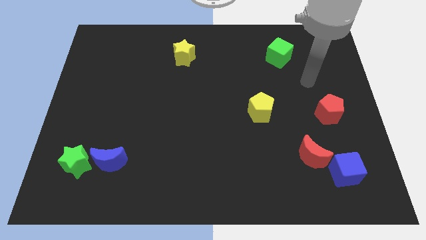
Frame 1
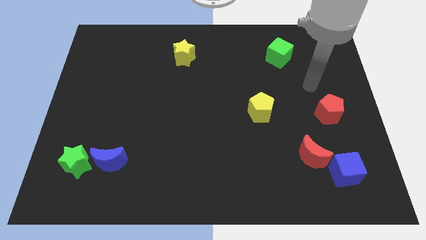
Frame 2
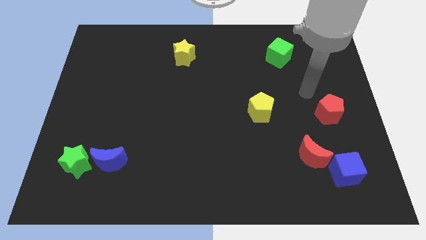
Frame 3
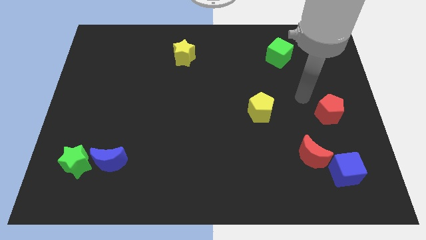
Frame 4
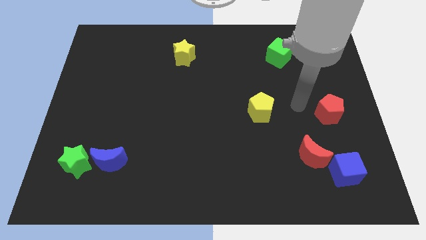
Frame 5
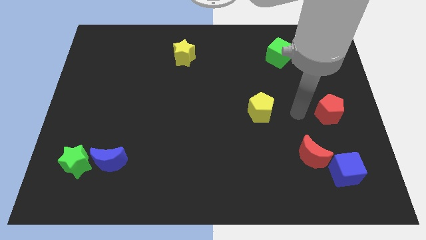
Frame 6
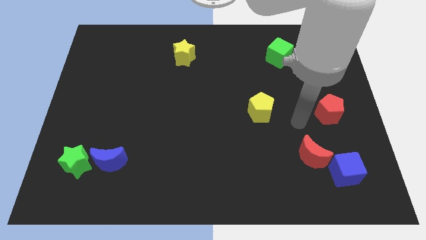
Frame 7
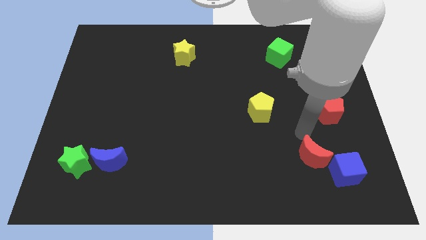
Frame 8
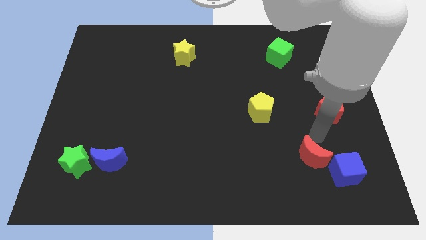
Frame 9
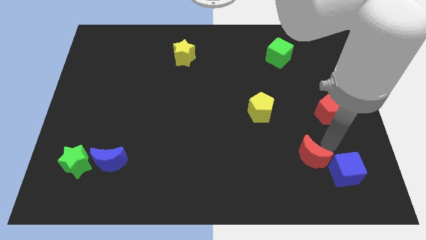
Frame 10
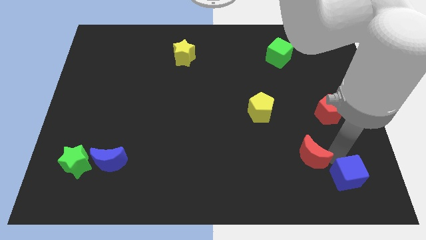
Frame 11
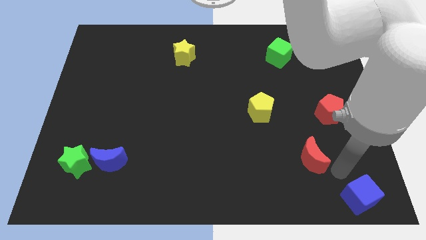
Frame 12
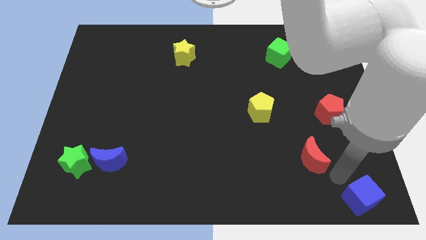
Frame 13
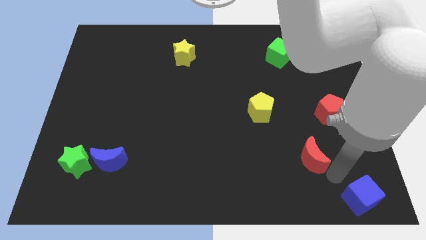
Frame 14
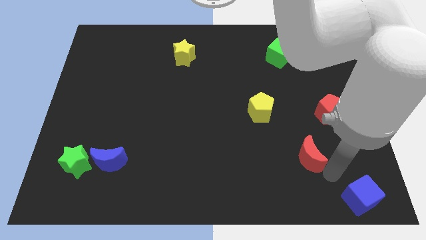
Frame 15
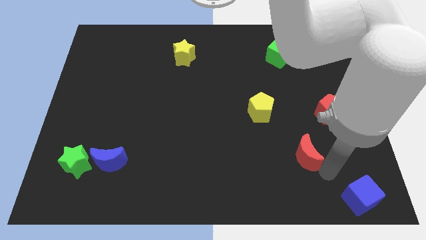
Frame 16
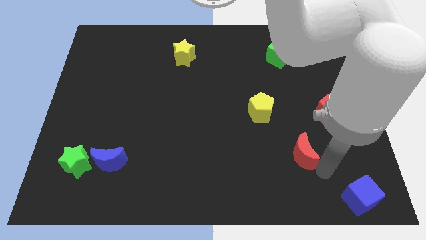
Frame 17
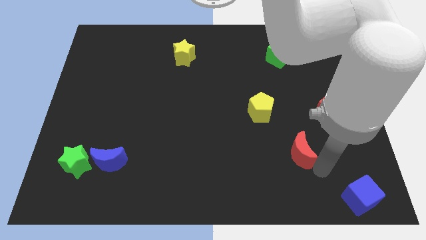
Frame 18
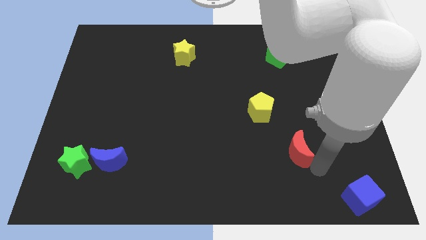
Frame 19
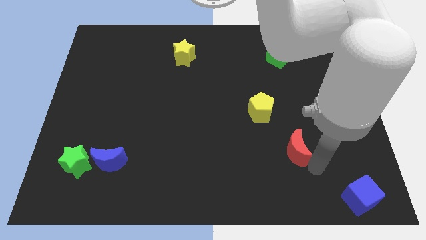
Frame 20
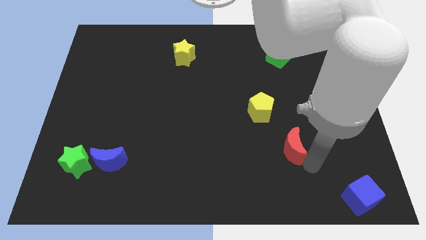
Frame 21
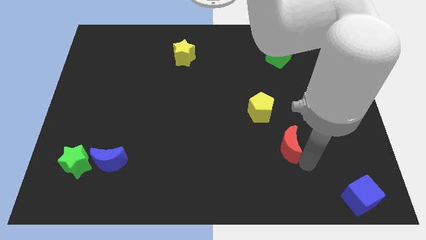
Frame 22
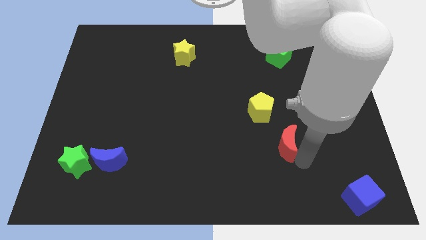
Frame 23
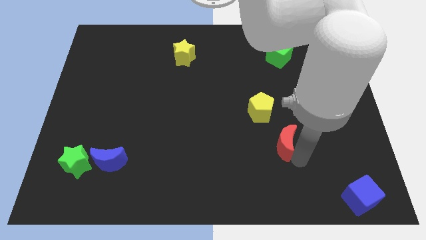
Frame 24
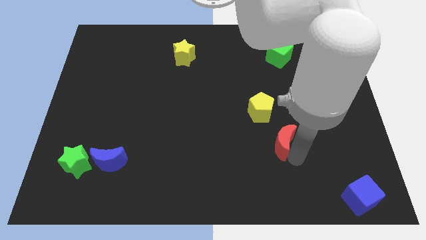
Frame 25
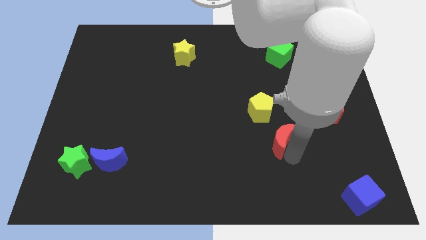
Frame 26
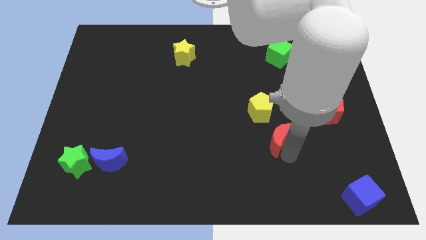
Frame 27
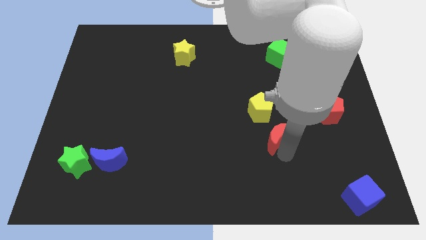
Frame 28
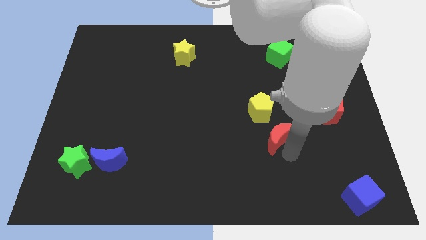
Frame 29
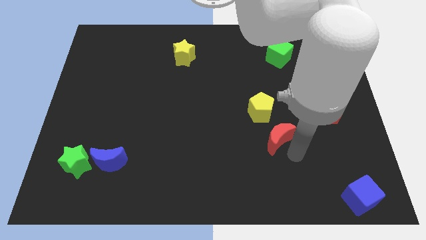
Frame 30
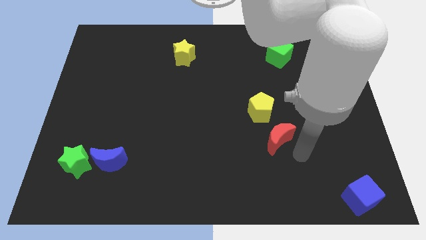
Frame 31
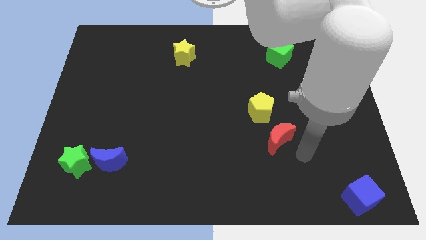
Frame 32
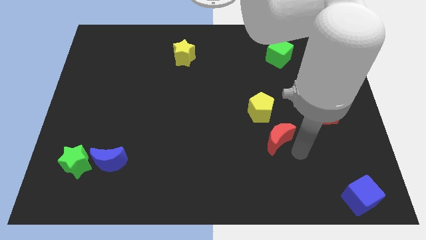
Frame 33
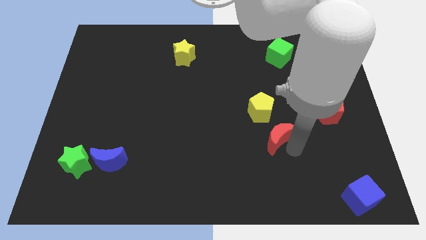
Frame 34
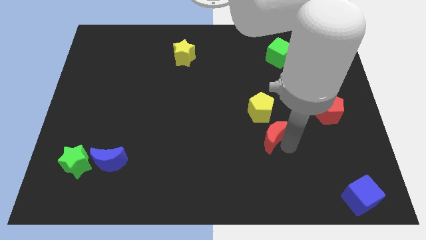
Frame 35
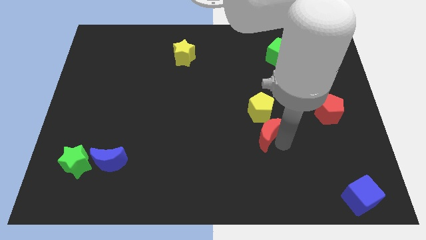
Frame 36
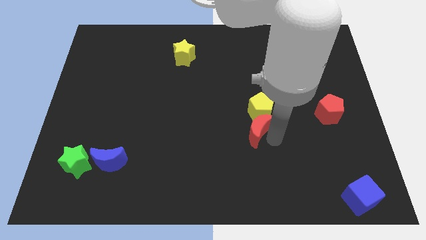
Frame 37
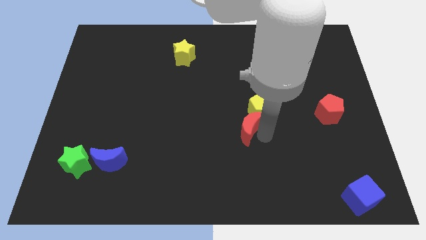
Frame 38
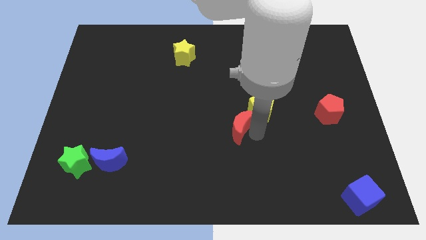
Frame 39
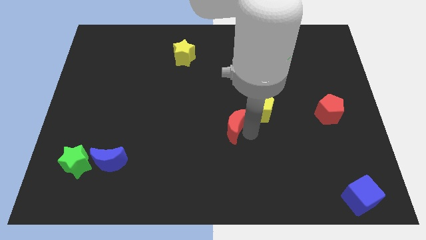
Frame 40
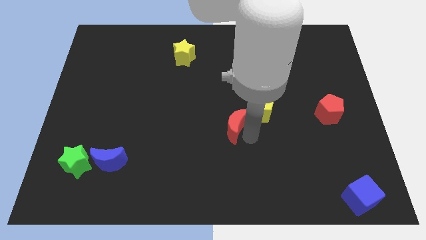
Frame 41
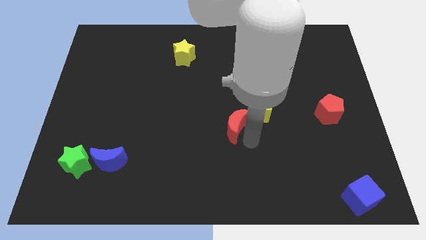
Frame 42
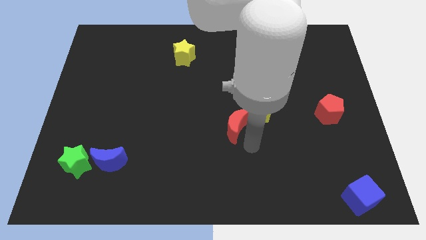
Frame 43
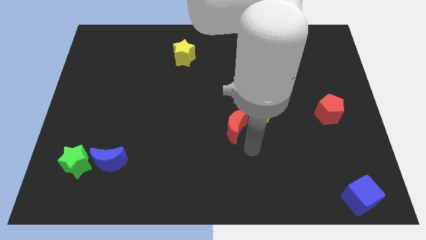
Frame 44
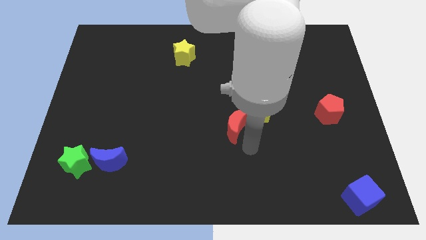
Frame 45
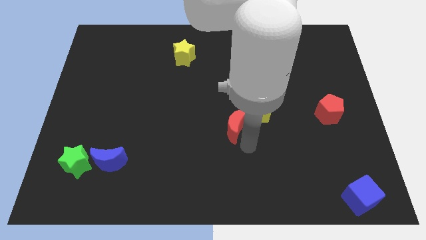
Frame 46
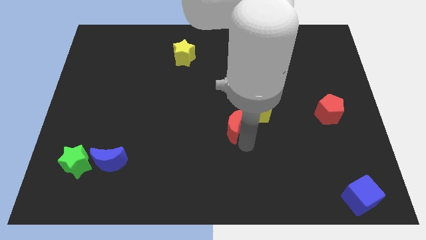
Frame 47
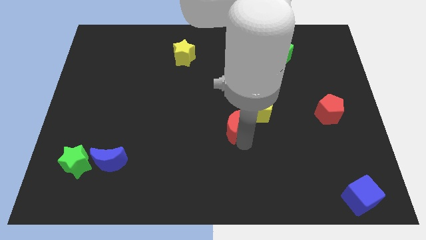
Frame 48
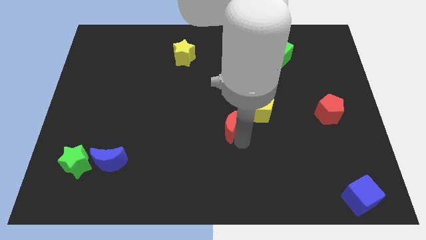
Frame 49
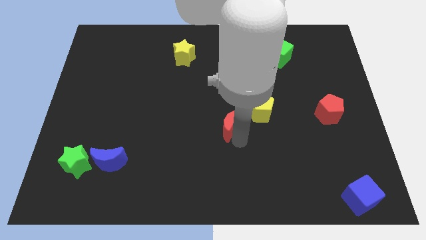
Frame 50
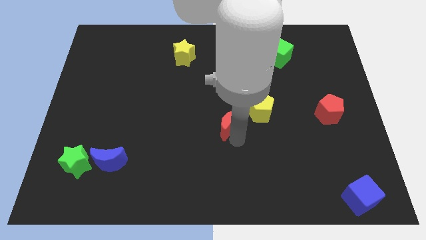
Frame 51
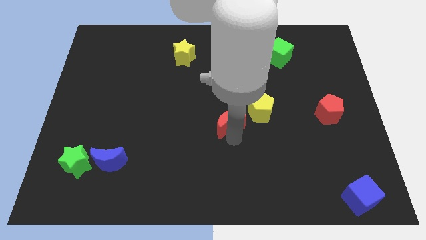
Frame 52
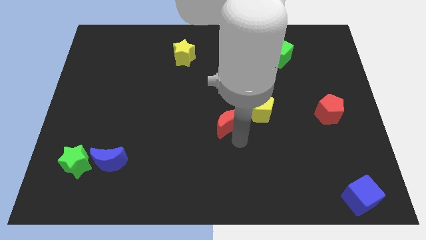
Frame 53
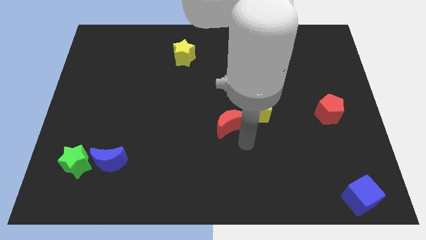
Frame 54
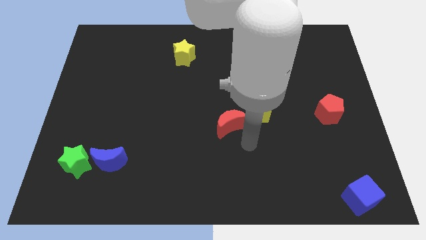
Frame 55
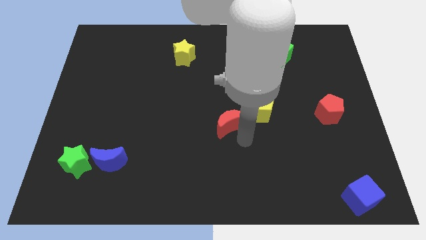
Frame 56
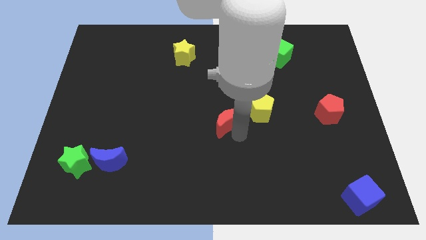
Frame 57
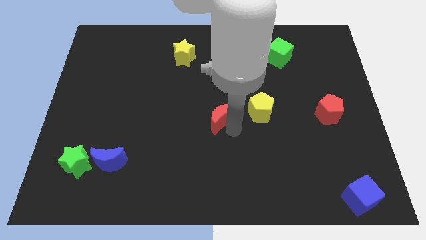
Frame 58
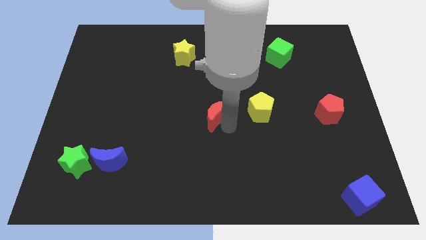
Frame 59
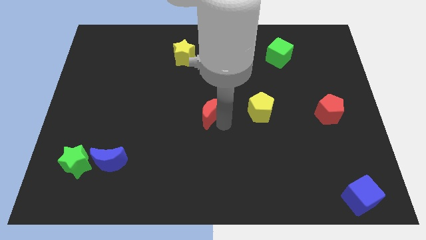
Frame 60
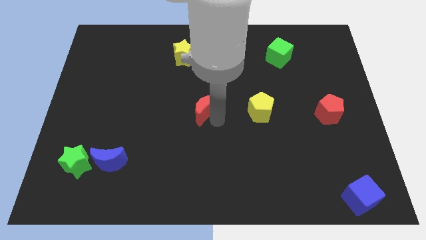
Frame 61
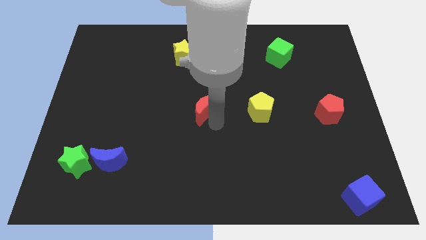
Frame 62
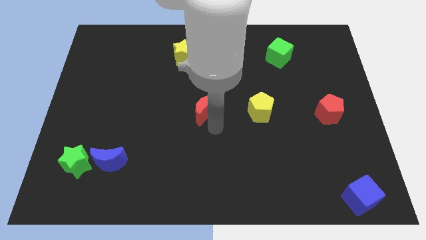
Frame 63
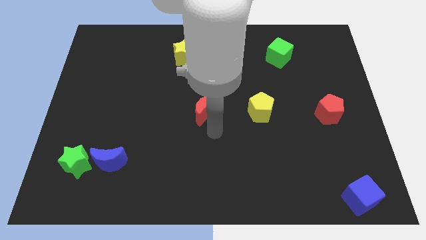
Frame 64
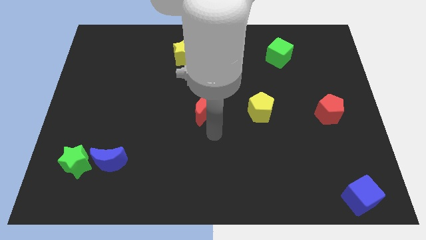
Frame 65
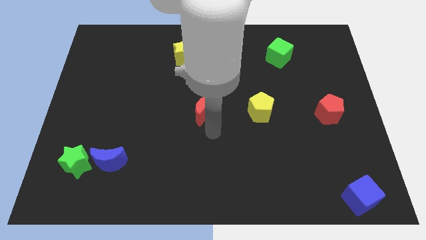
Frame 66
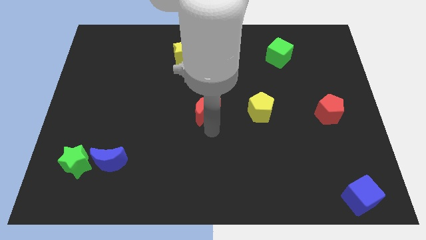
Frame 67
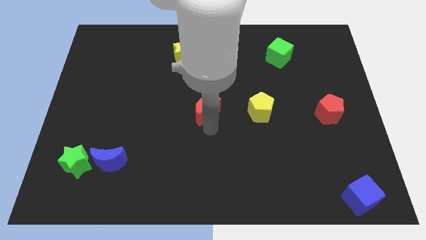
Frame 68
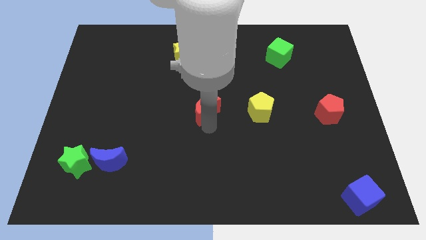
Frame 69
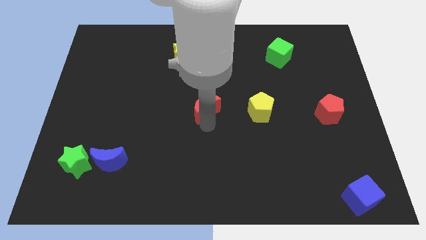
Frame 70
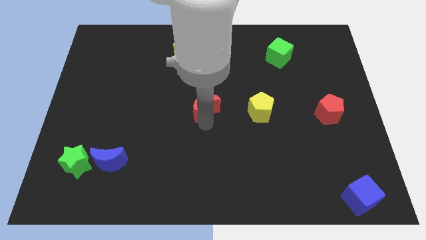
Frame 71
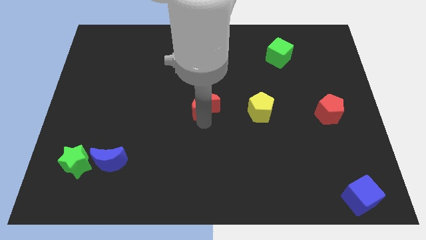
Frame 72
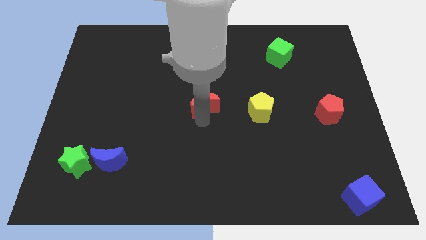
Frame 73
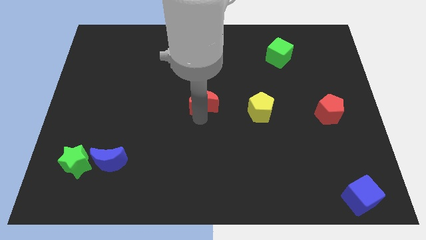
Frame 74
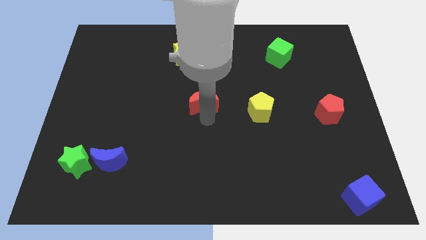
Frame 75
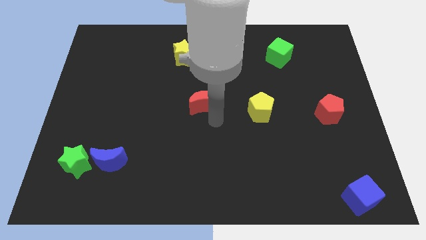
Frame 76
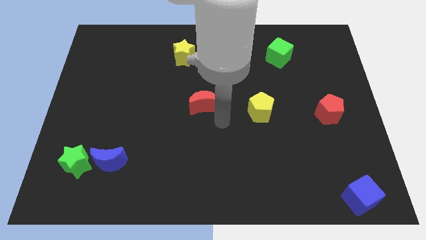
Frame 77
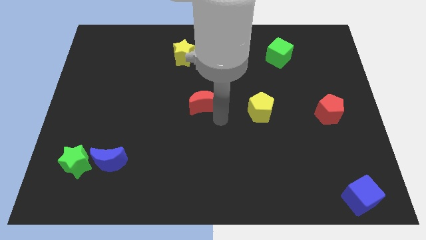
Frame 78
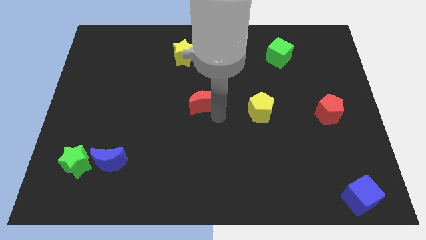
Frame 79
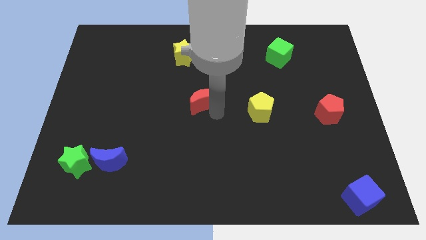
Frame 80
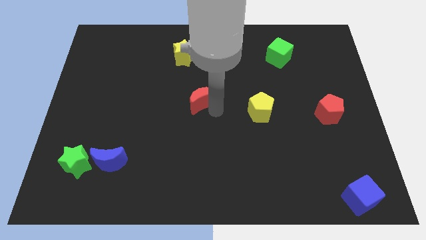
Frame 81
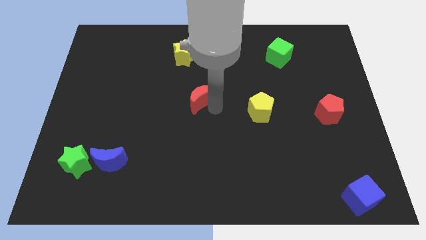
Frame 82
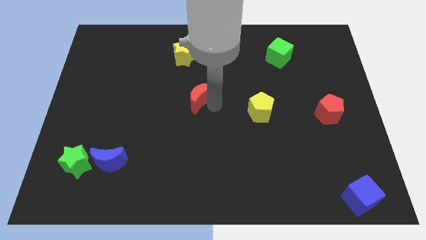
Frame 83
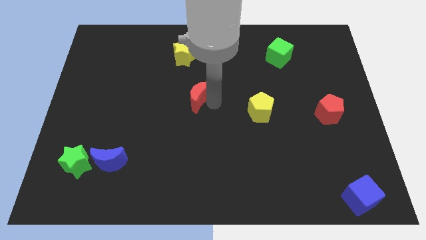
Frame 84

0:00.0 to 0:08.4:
push the red moon to the bottom side of the yellow star
